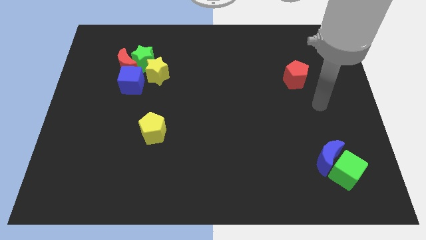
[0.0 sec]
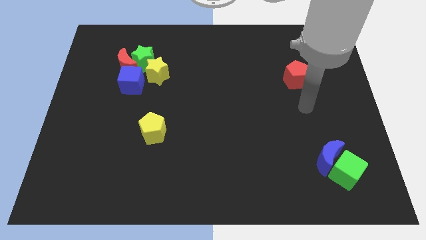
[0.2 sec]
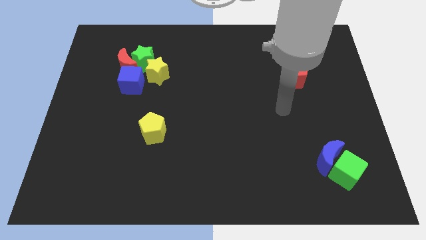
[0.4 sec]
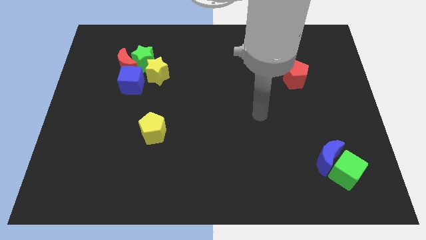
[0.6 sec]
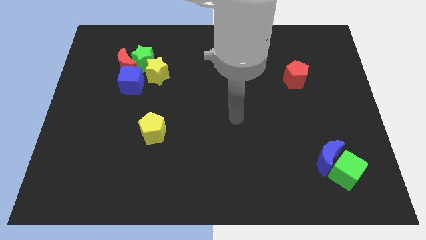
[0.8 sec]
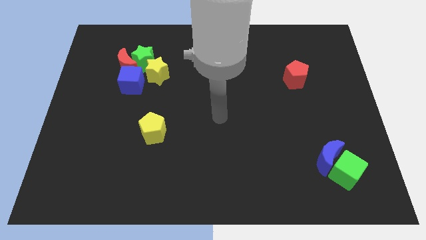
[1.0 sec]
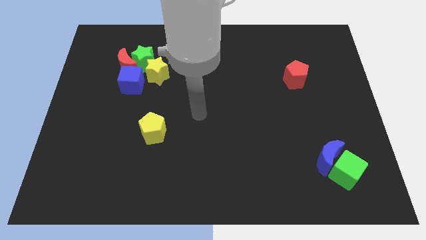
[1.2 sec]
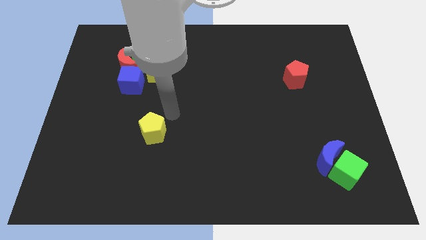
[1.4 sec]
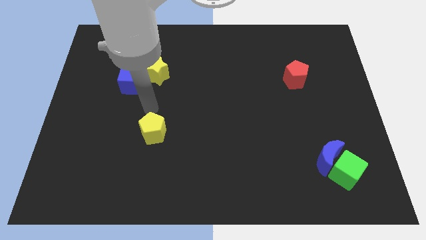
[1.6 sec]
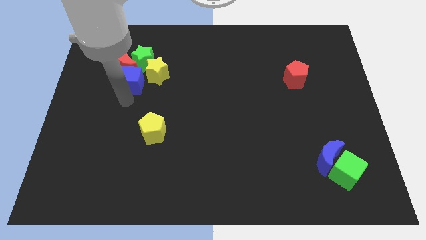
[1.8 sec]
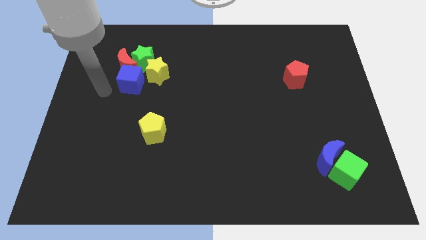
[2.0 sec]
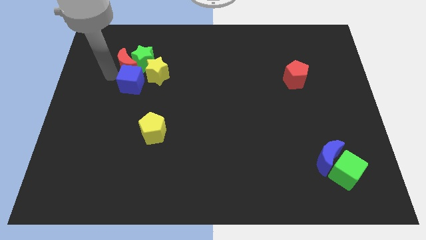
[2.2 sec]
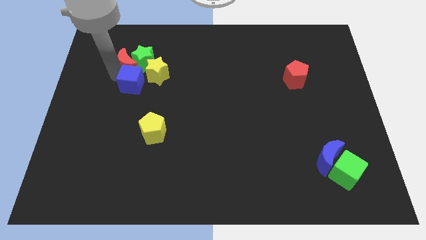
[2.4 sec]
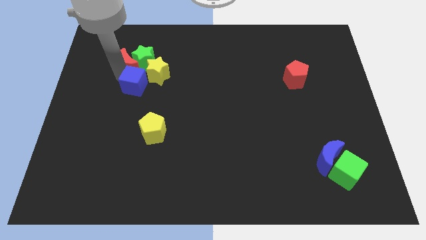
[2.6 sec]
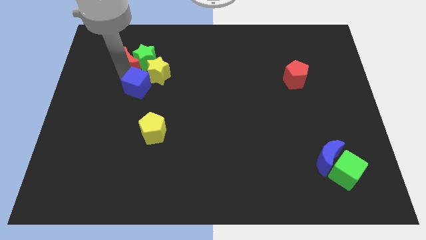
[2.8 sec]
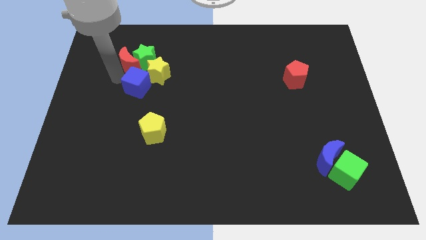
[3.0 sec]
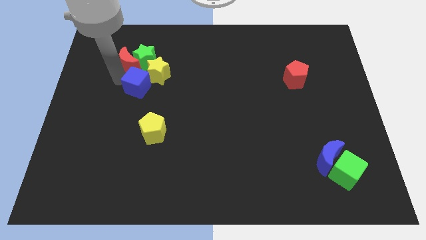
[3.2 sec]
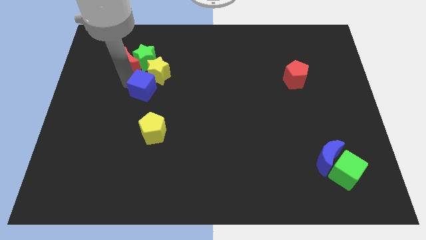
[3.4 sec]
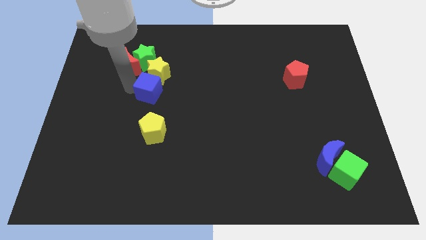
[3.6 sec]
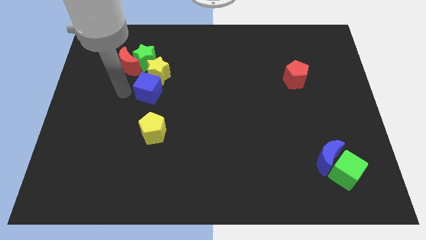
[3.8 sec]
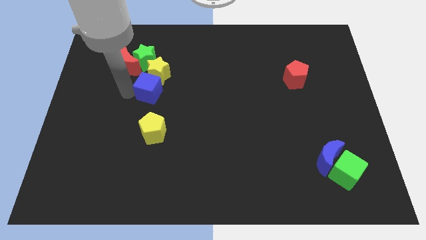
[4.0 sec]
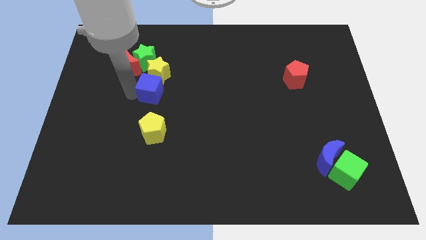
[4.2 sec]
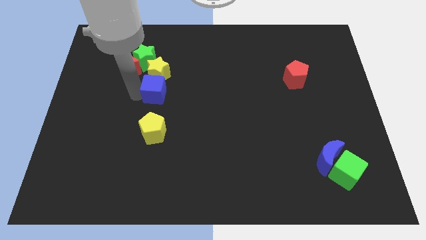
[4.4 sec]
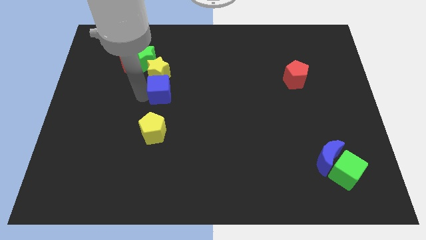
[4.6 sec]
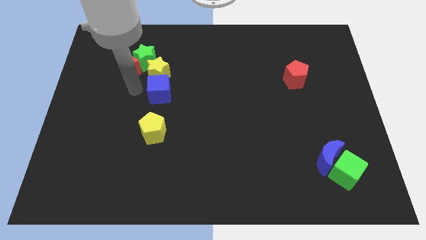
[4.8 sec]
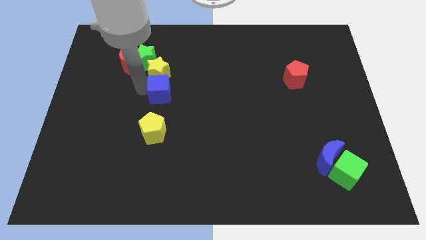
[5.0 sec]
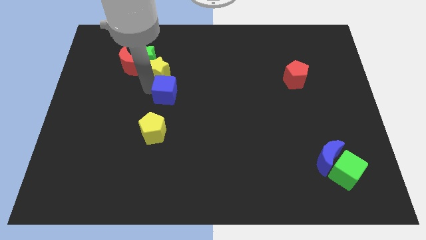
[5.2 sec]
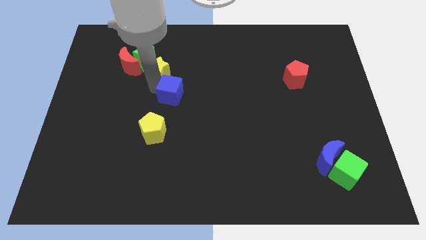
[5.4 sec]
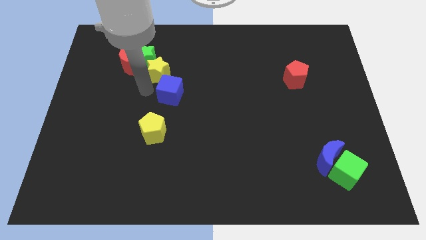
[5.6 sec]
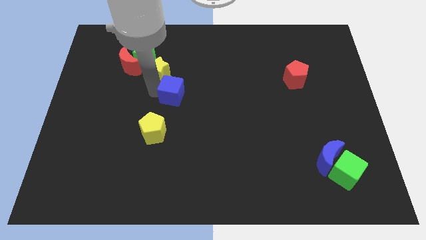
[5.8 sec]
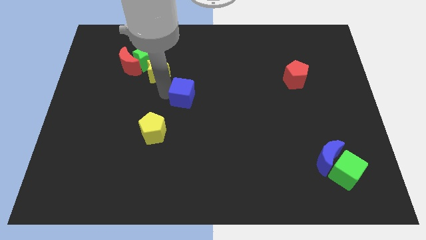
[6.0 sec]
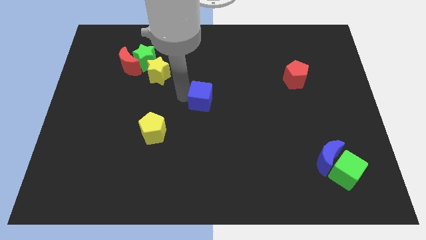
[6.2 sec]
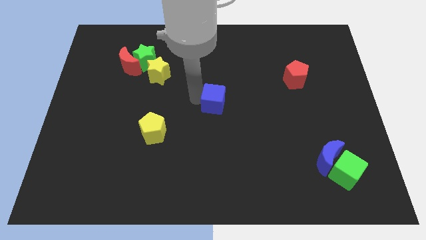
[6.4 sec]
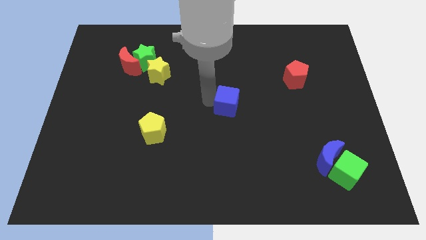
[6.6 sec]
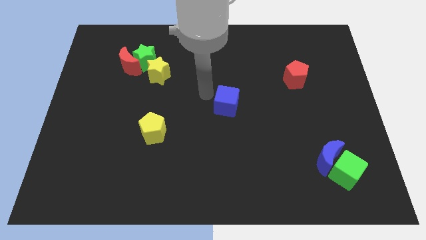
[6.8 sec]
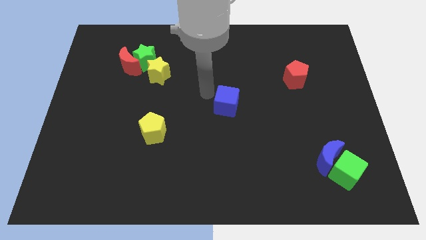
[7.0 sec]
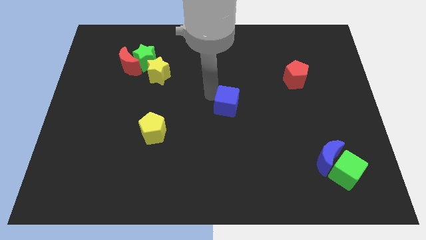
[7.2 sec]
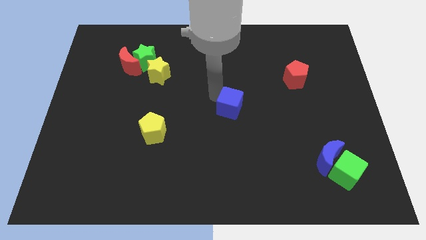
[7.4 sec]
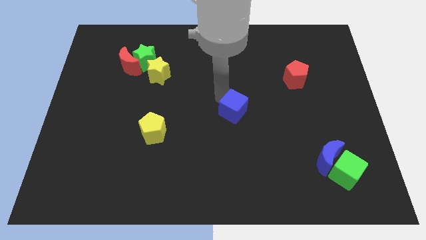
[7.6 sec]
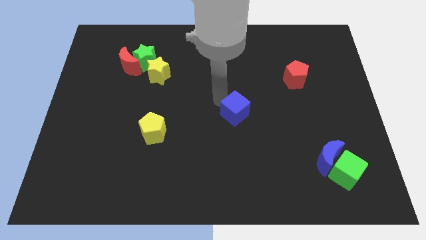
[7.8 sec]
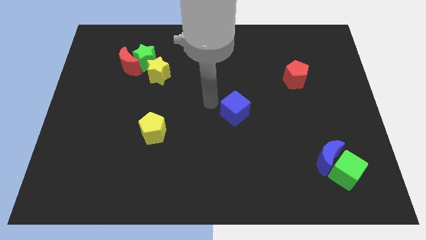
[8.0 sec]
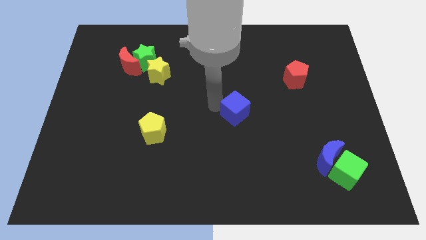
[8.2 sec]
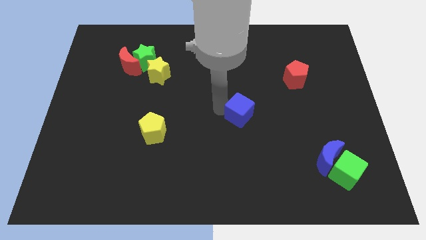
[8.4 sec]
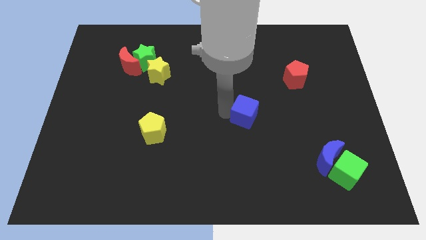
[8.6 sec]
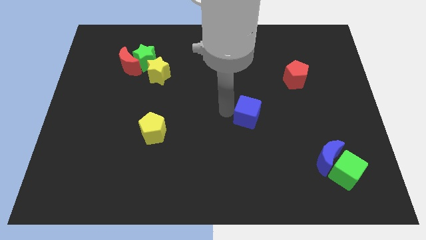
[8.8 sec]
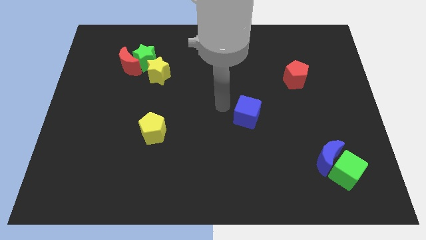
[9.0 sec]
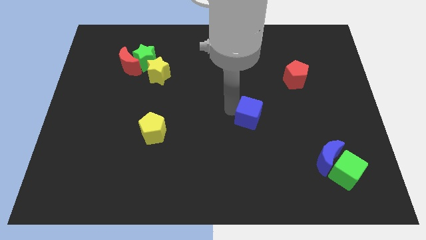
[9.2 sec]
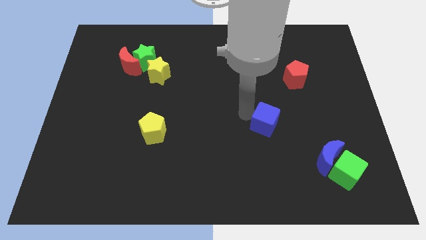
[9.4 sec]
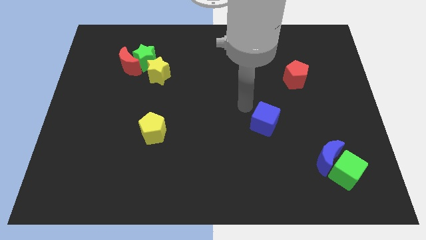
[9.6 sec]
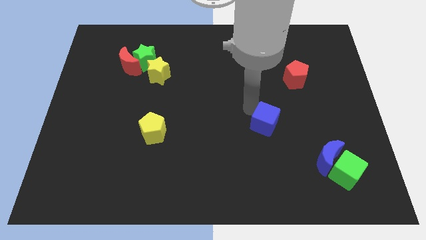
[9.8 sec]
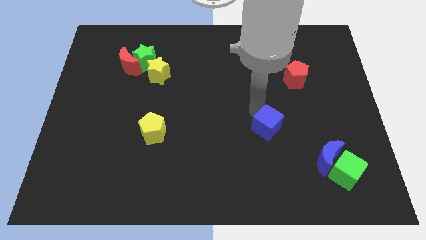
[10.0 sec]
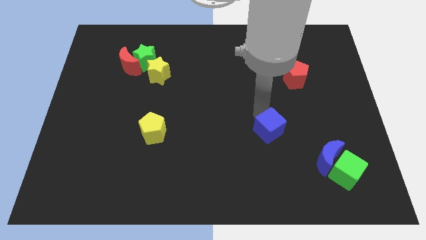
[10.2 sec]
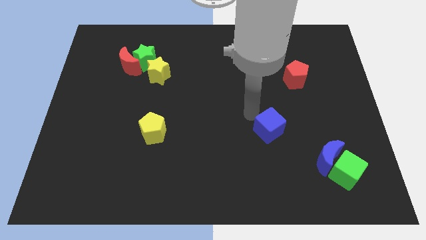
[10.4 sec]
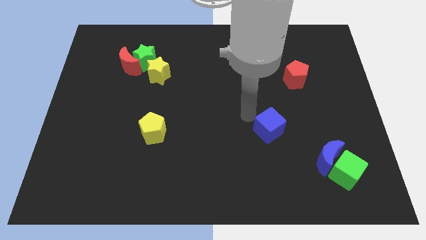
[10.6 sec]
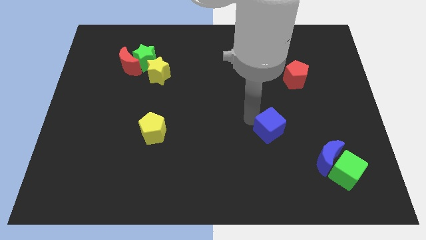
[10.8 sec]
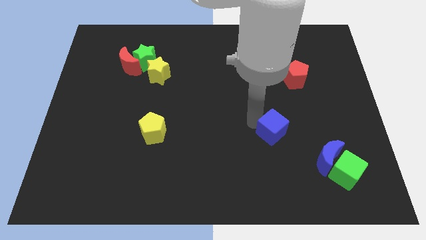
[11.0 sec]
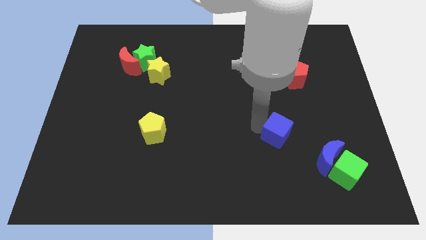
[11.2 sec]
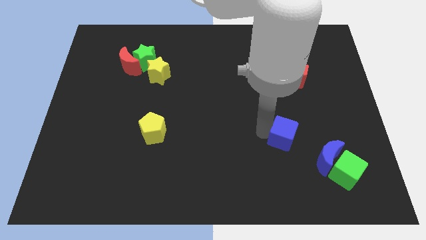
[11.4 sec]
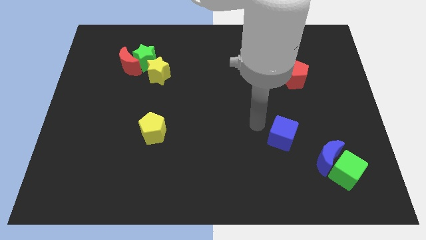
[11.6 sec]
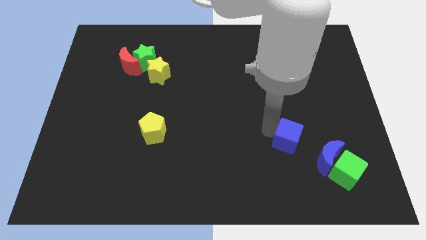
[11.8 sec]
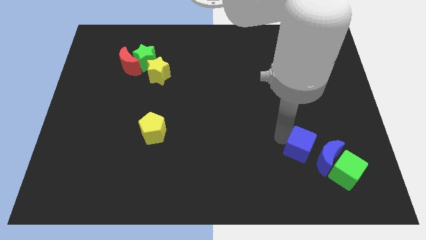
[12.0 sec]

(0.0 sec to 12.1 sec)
push the blue cube to the blue moon

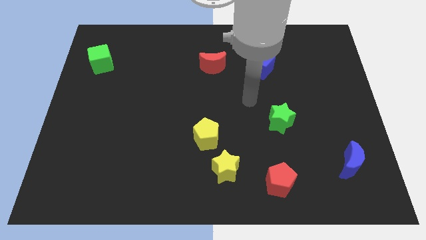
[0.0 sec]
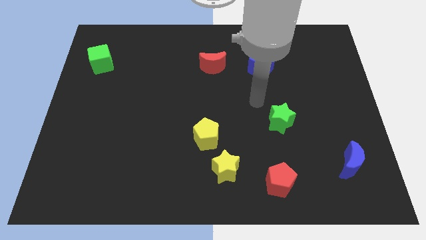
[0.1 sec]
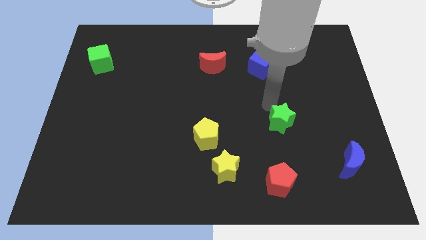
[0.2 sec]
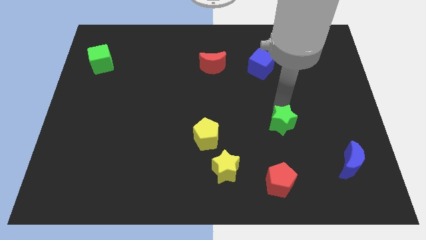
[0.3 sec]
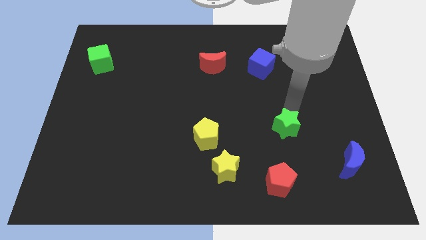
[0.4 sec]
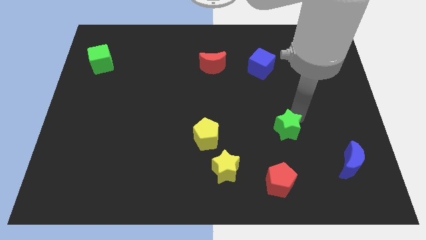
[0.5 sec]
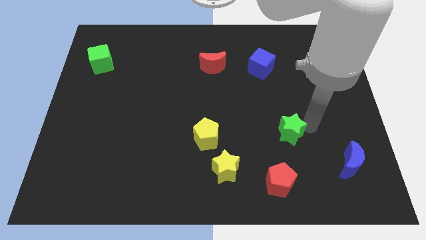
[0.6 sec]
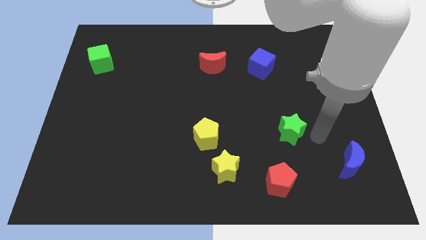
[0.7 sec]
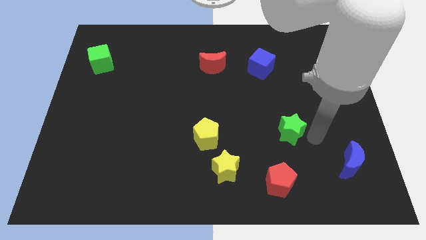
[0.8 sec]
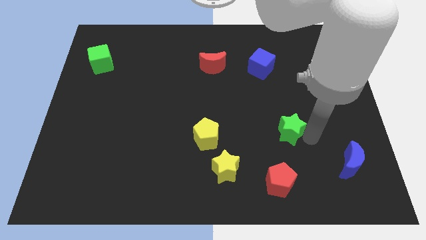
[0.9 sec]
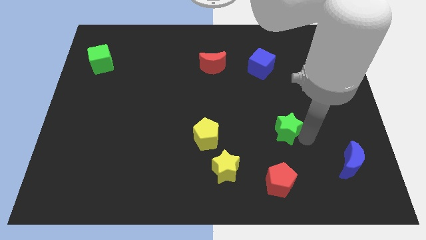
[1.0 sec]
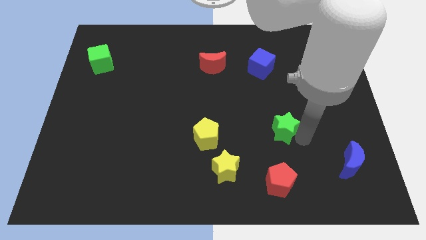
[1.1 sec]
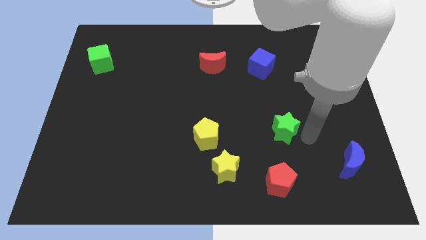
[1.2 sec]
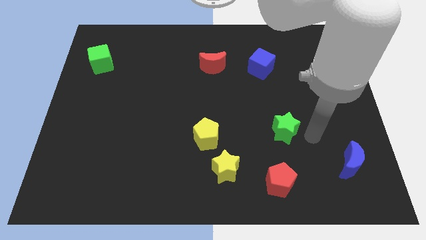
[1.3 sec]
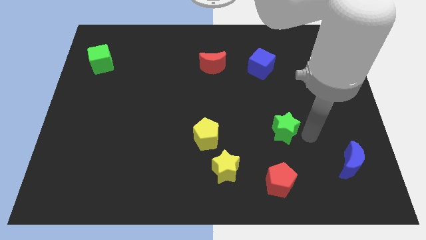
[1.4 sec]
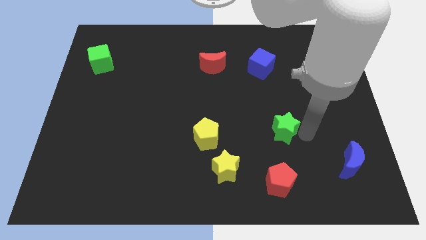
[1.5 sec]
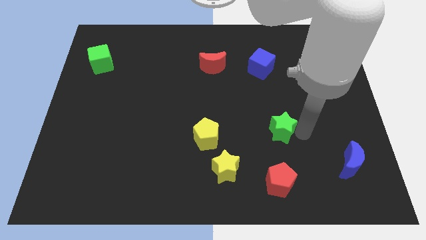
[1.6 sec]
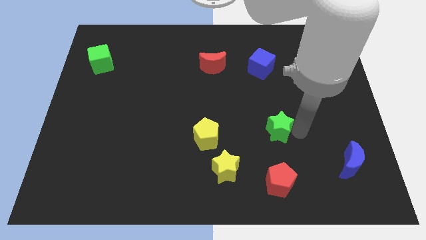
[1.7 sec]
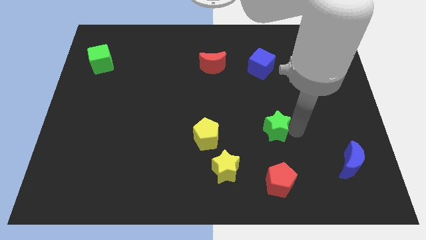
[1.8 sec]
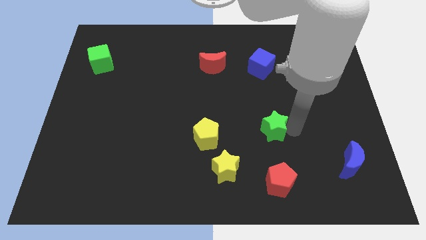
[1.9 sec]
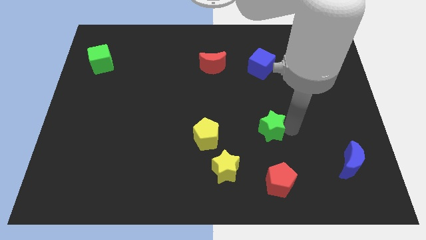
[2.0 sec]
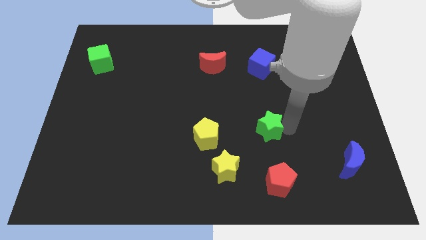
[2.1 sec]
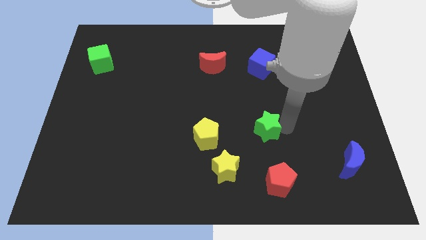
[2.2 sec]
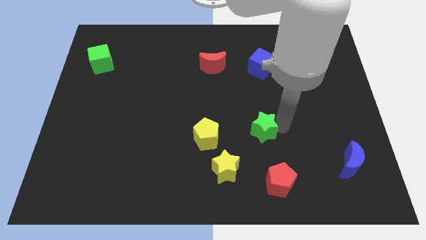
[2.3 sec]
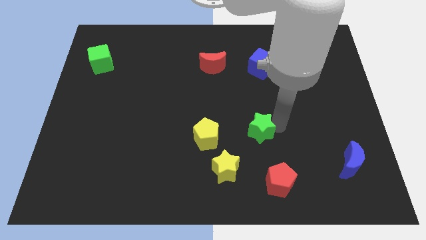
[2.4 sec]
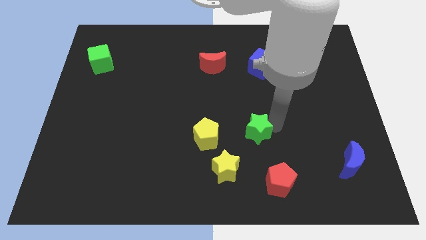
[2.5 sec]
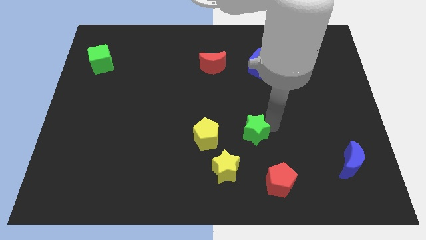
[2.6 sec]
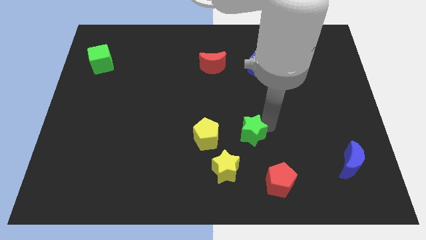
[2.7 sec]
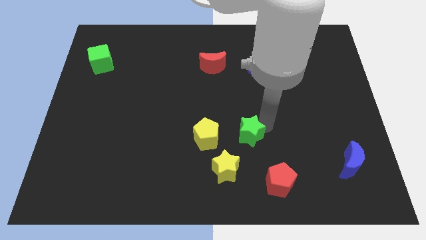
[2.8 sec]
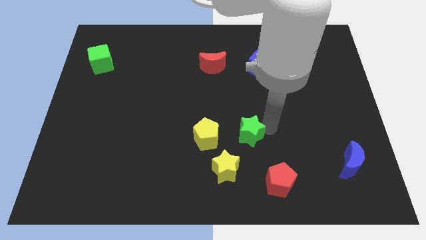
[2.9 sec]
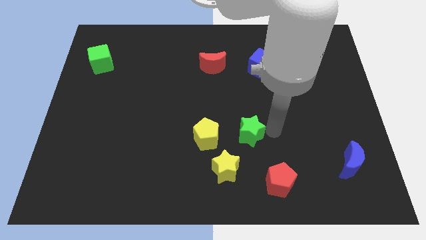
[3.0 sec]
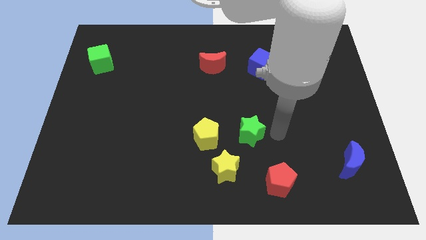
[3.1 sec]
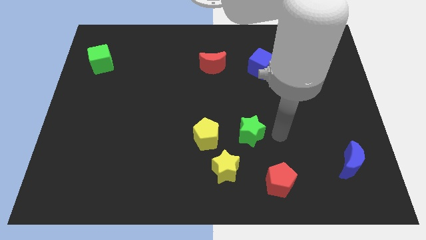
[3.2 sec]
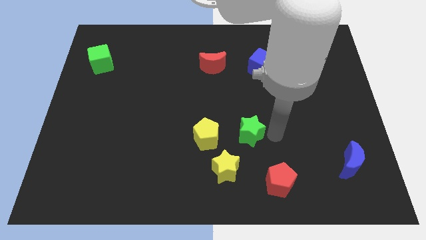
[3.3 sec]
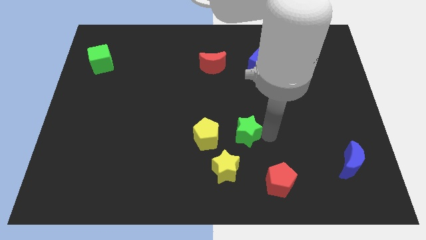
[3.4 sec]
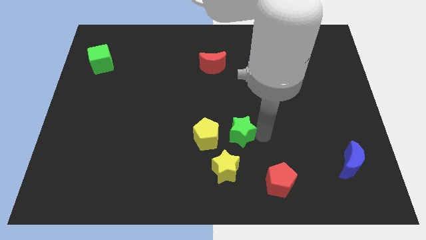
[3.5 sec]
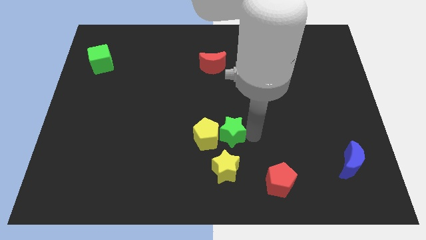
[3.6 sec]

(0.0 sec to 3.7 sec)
move the green star to the yellow pentagon
